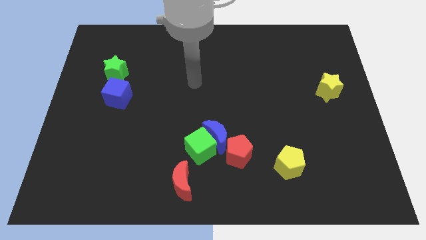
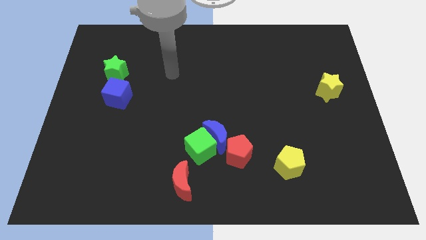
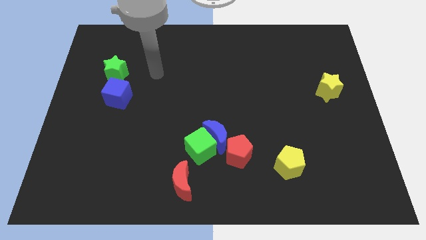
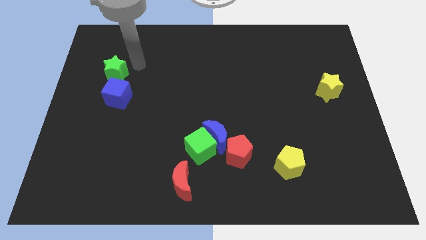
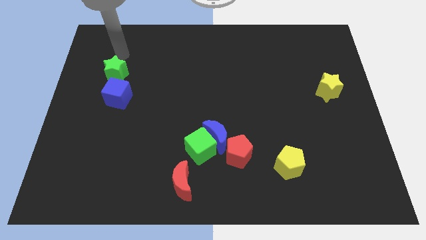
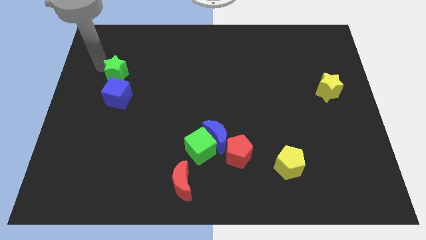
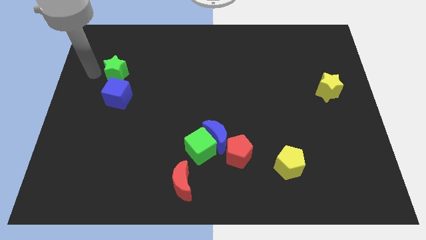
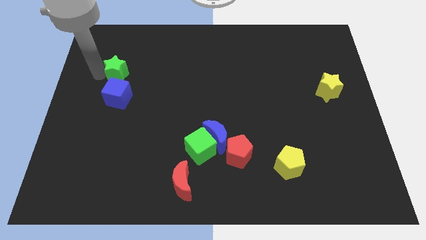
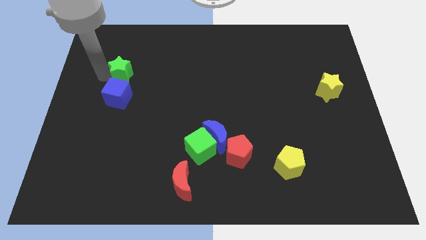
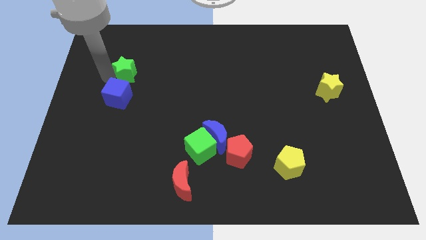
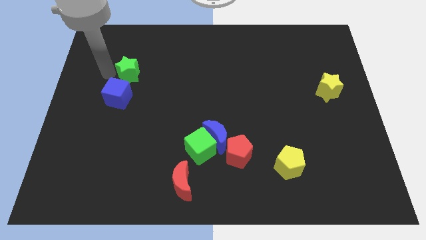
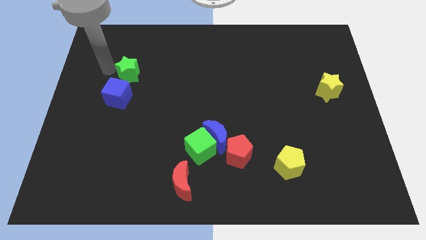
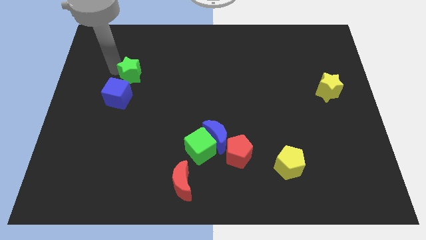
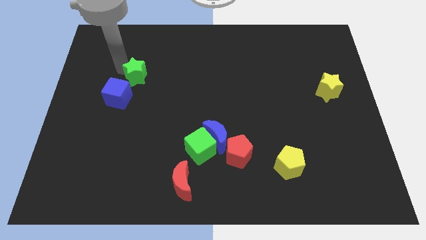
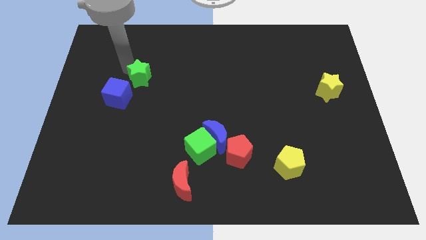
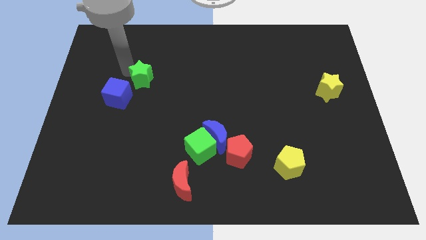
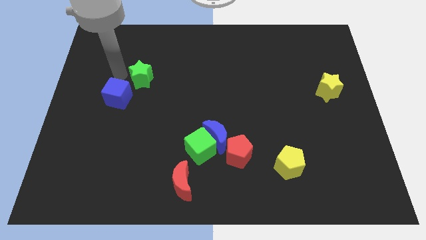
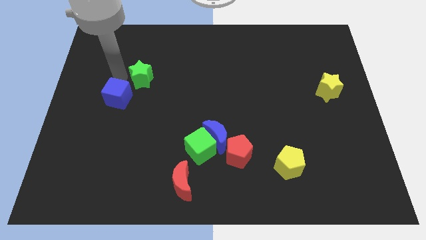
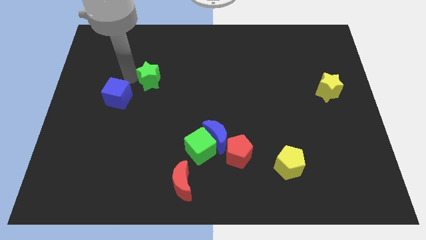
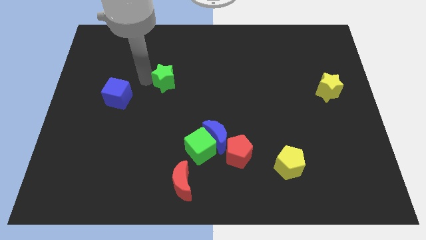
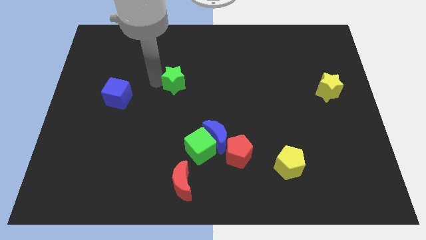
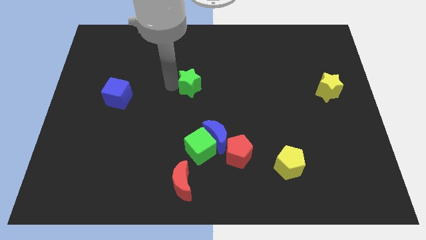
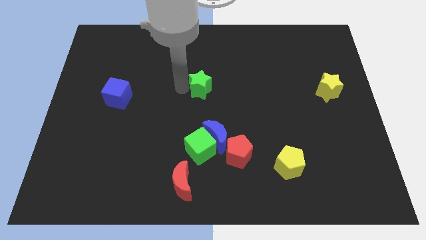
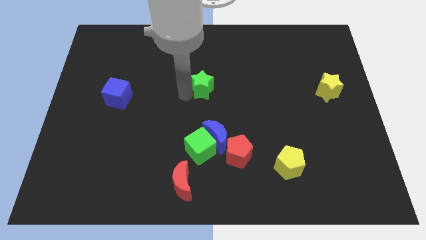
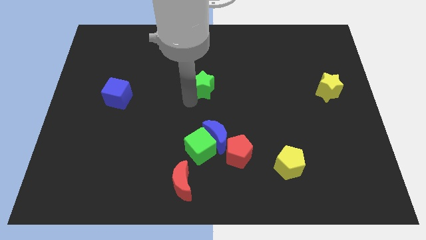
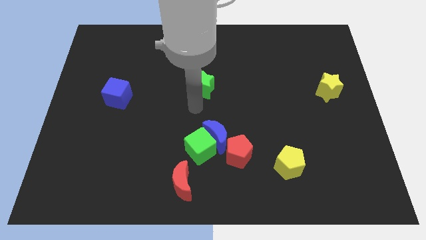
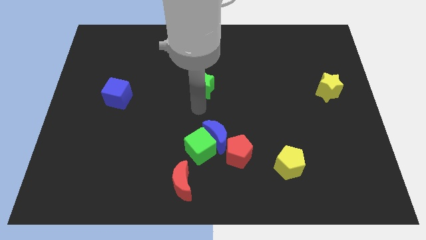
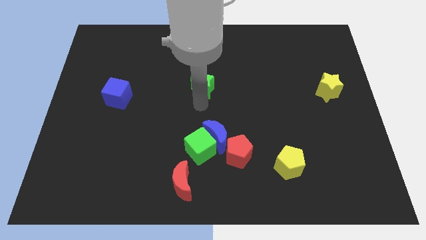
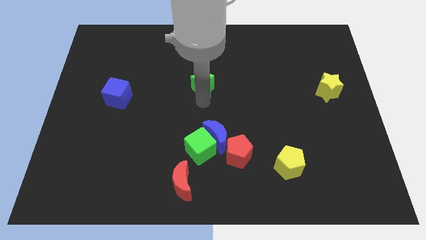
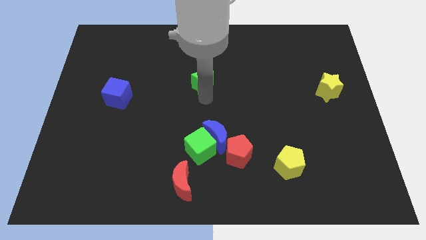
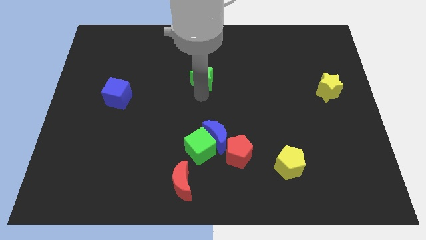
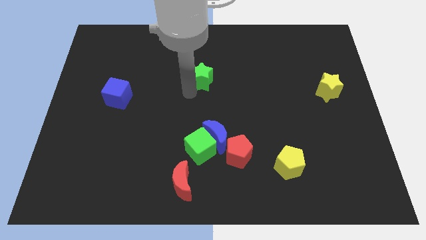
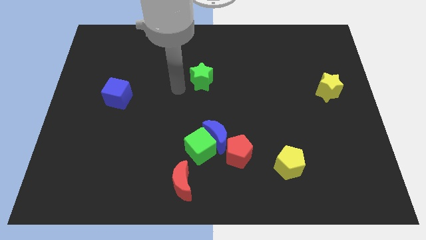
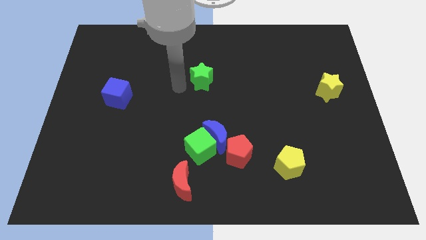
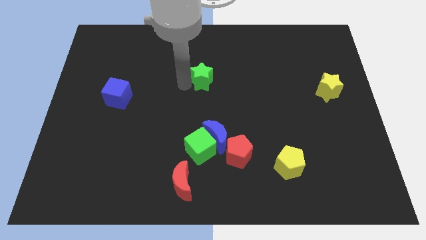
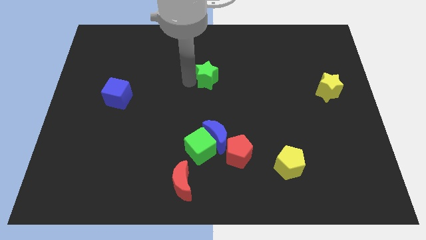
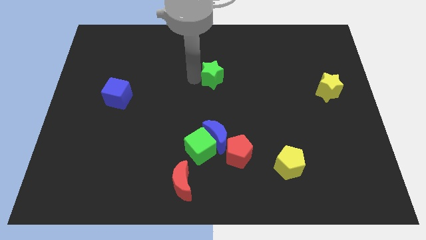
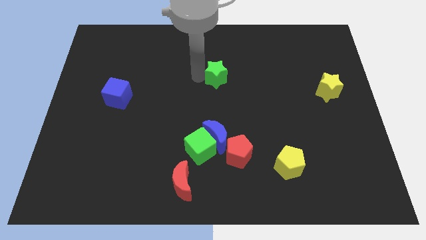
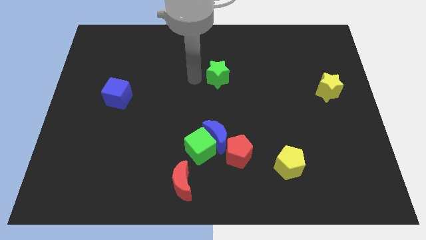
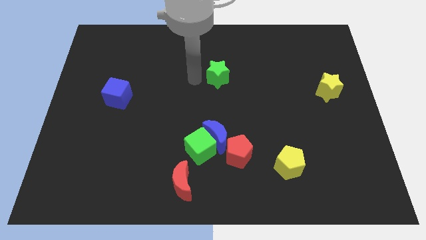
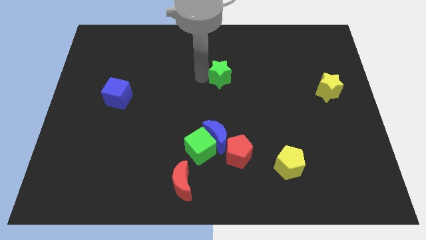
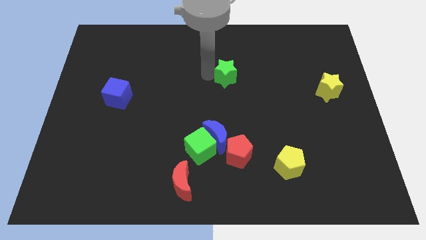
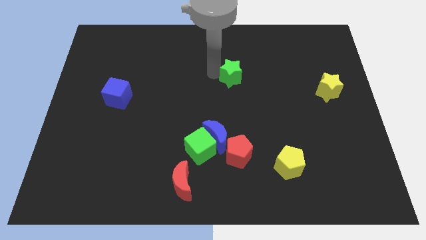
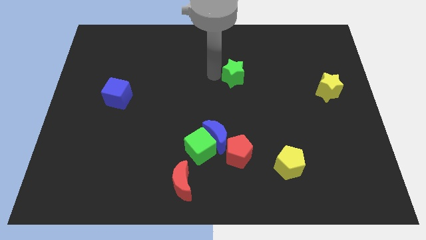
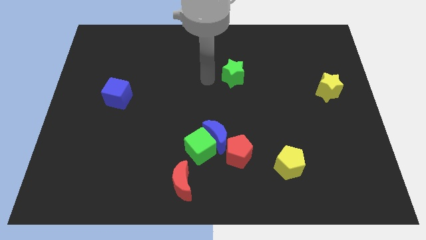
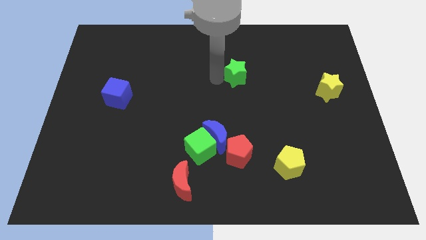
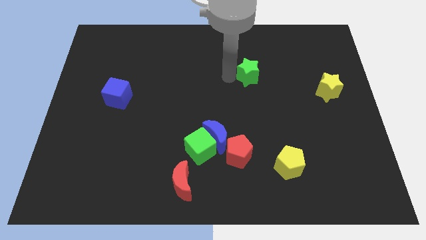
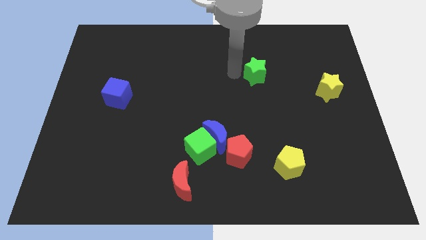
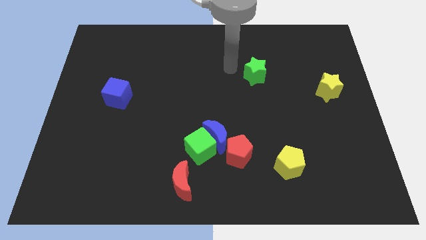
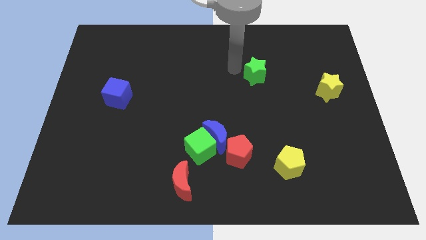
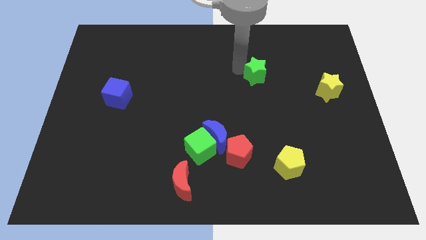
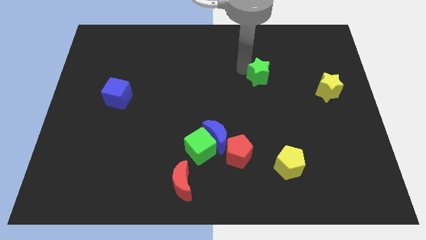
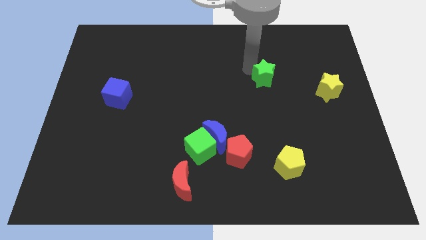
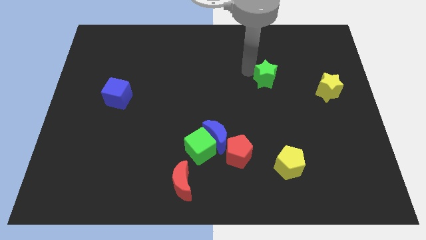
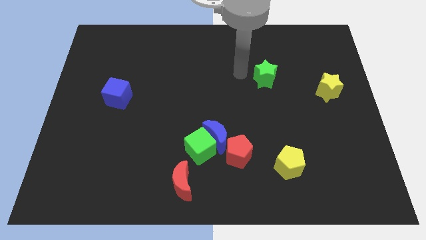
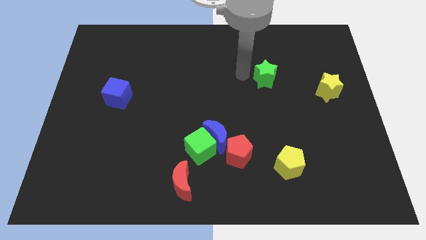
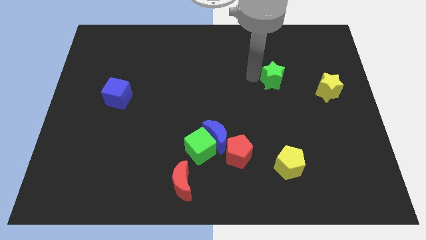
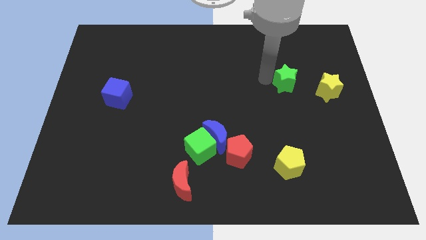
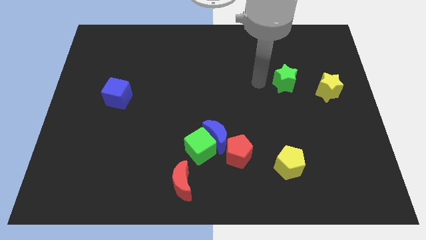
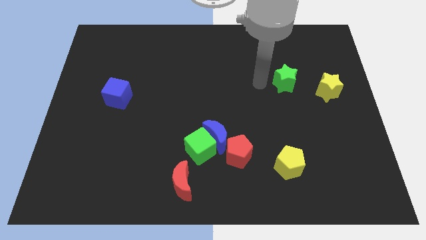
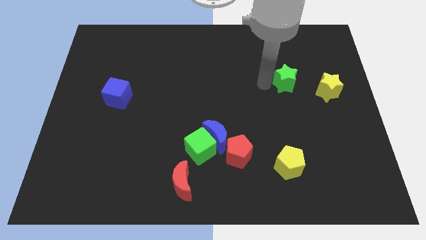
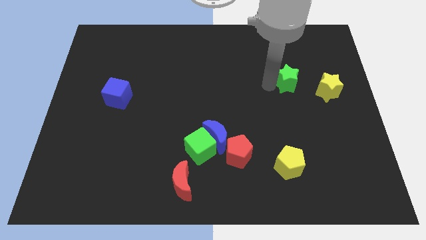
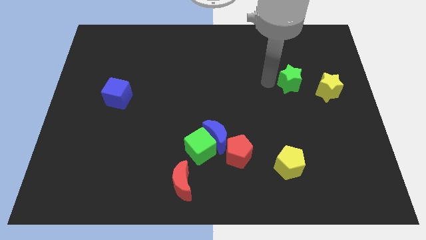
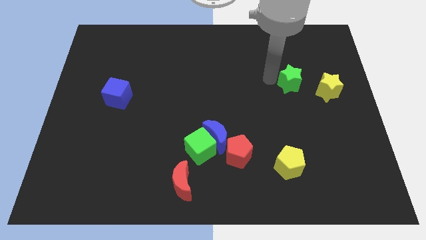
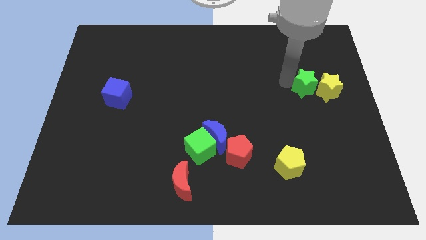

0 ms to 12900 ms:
move the green star to the yellow star
